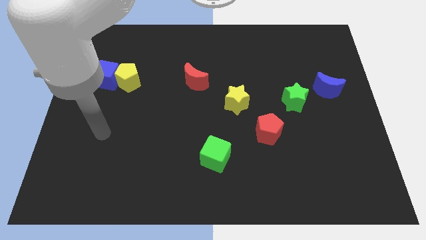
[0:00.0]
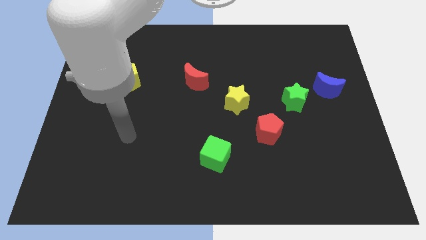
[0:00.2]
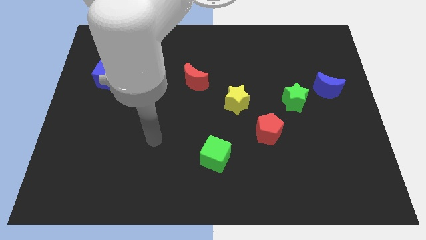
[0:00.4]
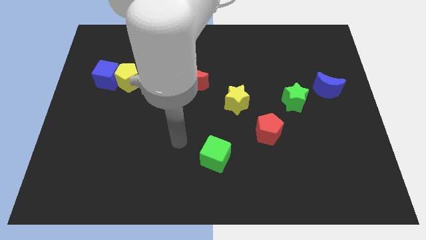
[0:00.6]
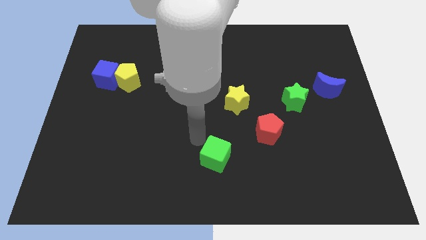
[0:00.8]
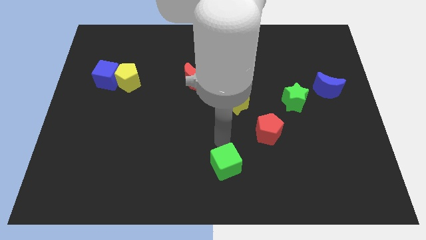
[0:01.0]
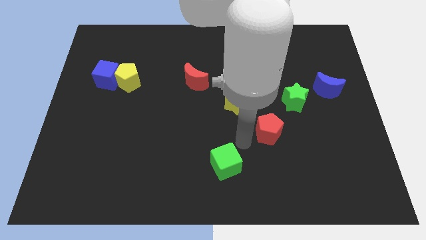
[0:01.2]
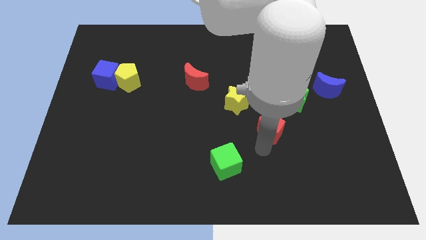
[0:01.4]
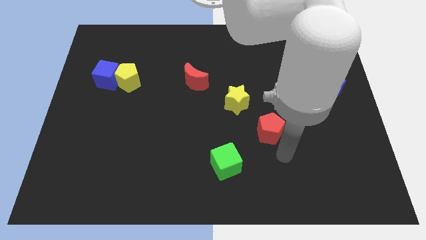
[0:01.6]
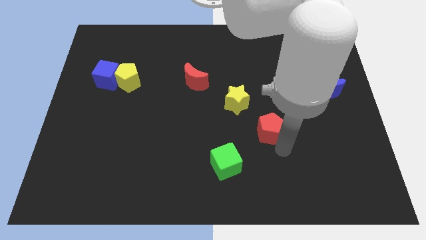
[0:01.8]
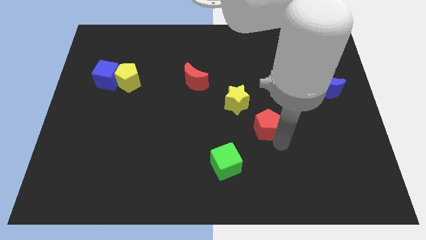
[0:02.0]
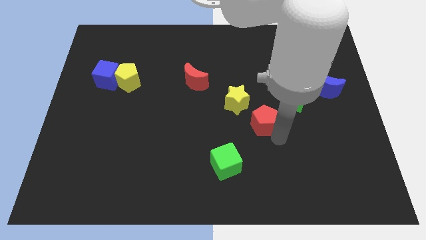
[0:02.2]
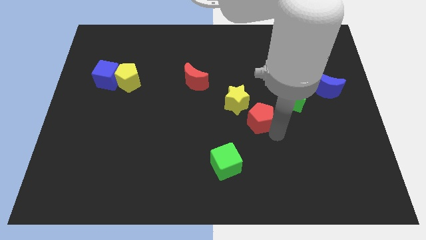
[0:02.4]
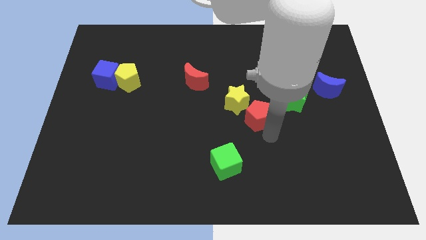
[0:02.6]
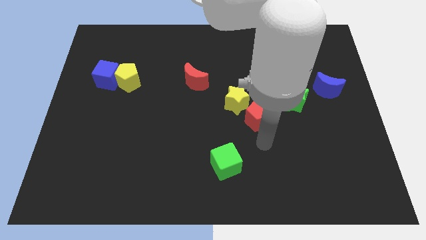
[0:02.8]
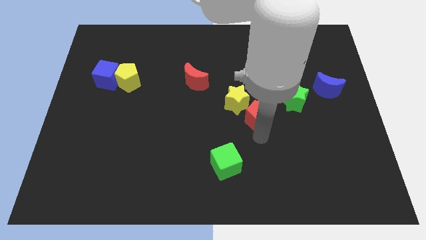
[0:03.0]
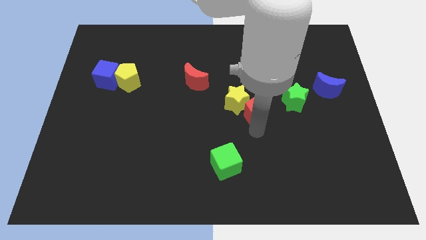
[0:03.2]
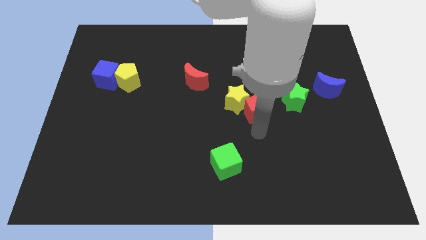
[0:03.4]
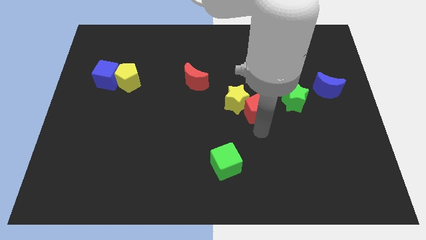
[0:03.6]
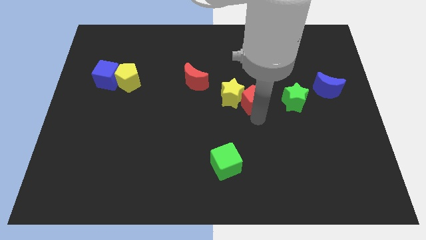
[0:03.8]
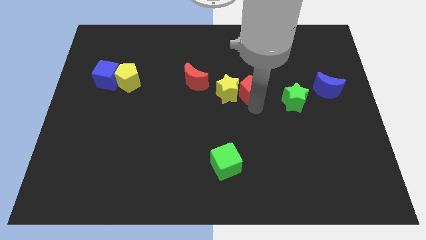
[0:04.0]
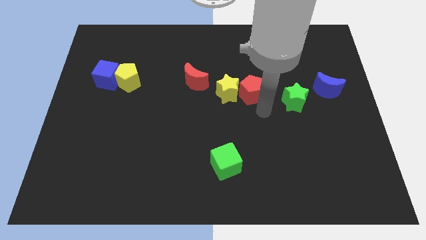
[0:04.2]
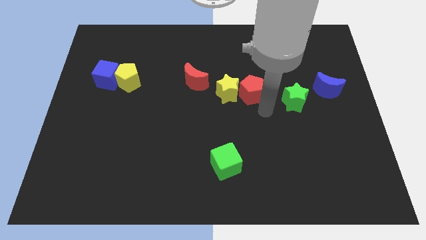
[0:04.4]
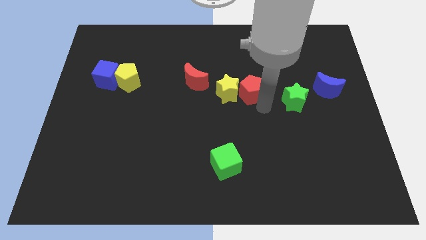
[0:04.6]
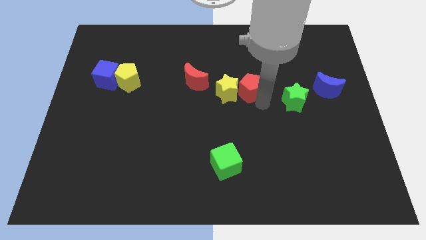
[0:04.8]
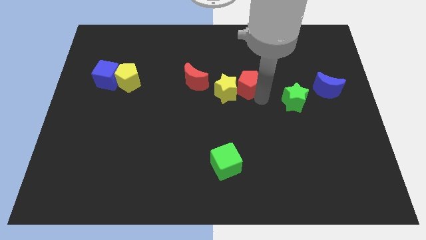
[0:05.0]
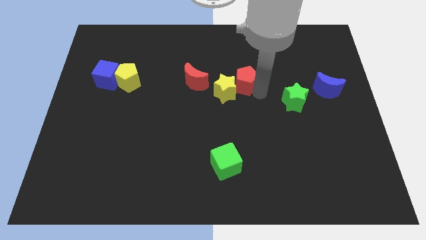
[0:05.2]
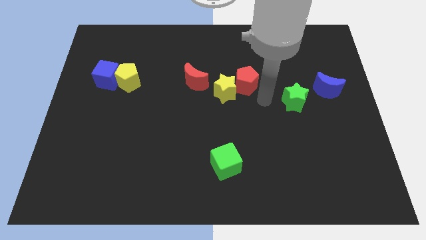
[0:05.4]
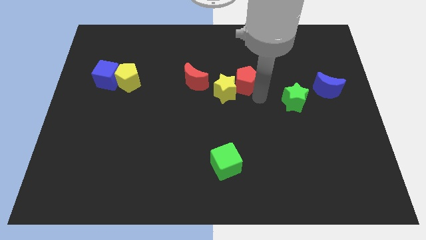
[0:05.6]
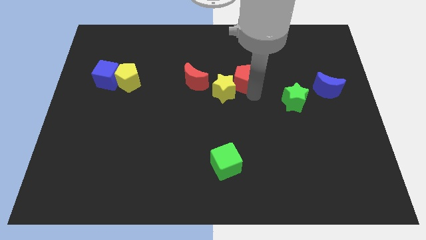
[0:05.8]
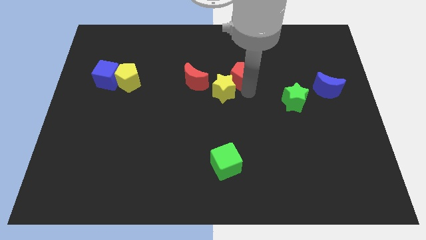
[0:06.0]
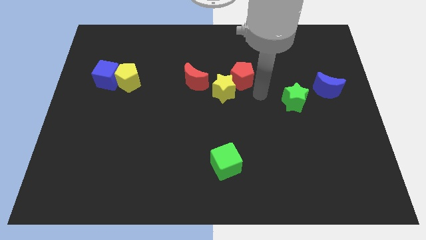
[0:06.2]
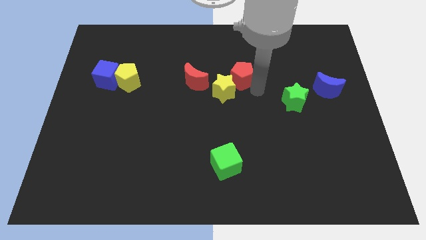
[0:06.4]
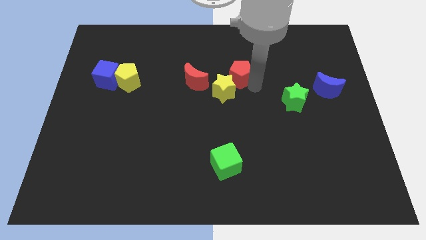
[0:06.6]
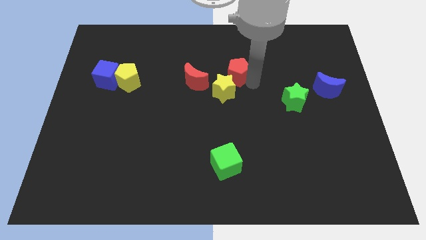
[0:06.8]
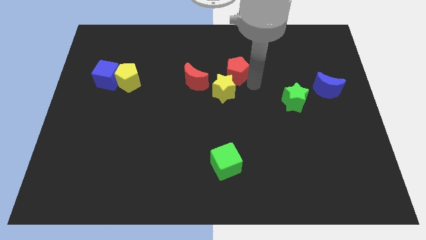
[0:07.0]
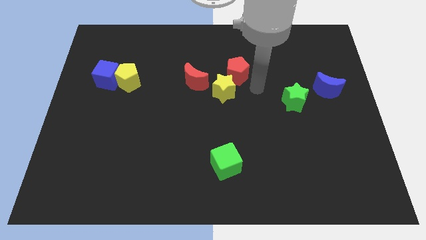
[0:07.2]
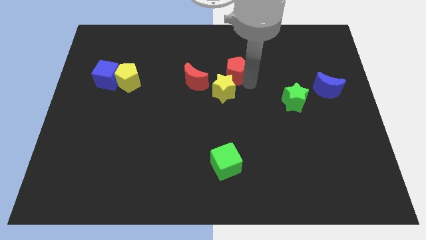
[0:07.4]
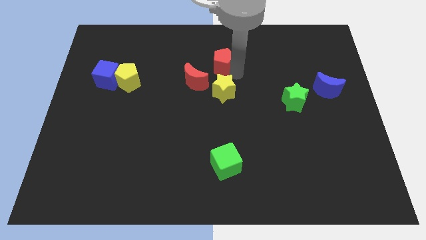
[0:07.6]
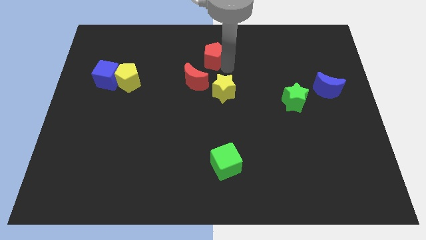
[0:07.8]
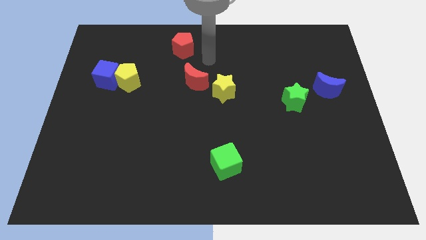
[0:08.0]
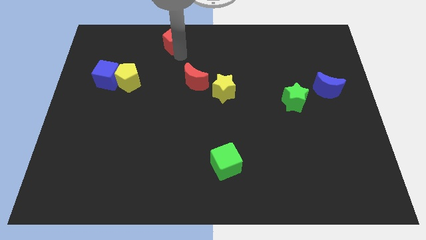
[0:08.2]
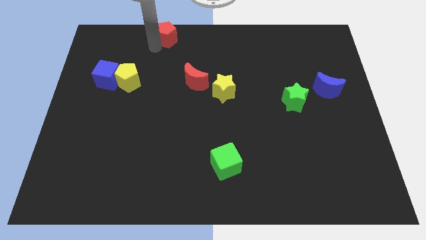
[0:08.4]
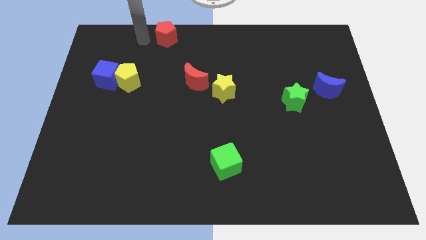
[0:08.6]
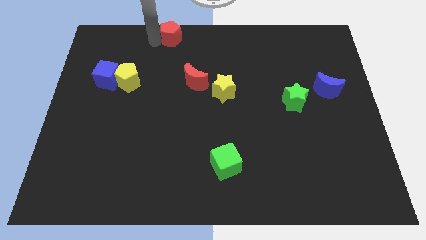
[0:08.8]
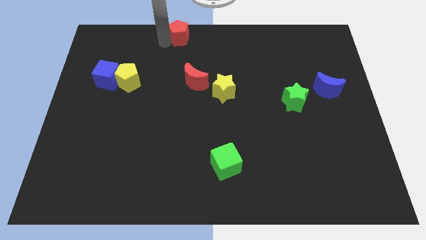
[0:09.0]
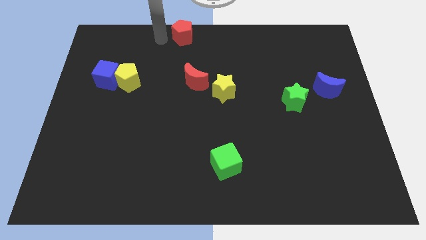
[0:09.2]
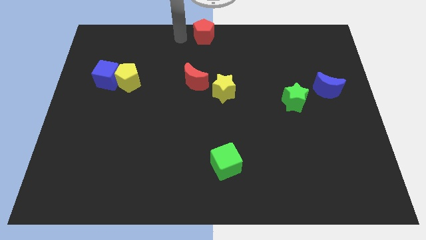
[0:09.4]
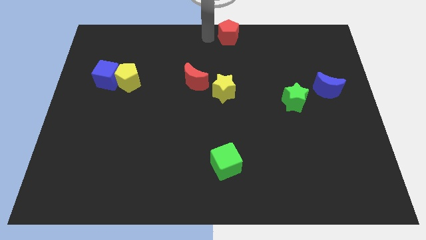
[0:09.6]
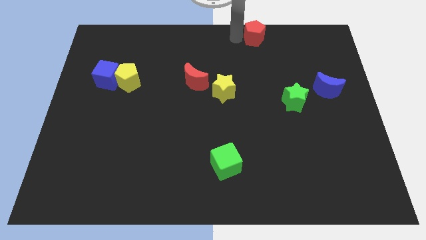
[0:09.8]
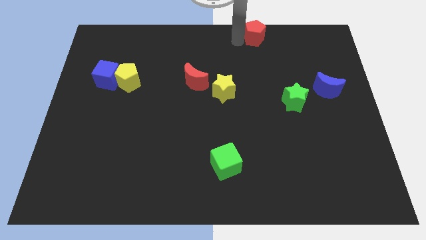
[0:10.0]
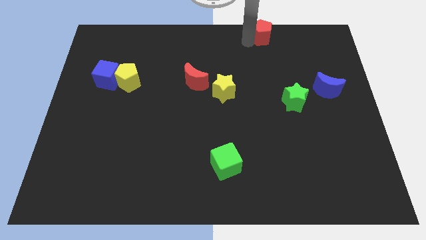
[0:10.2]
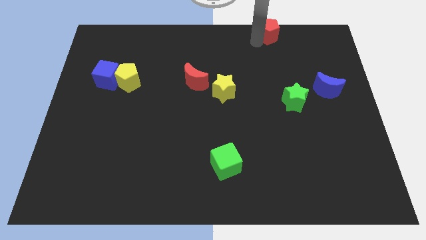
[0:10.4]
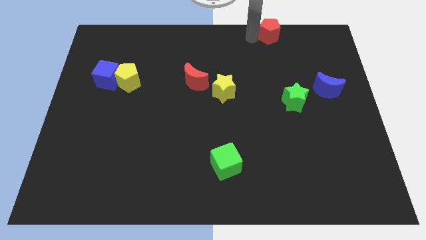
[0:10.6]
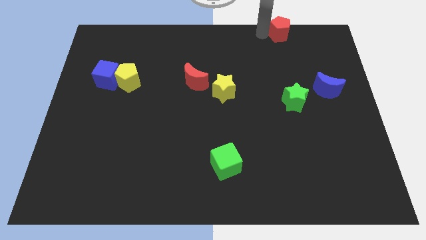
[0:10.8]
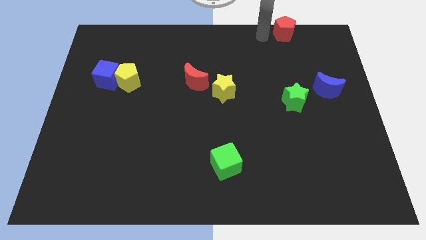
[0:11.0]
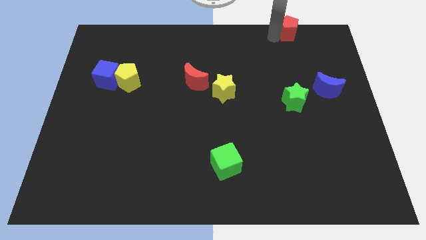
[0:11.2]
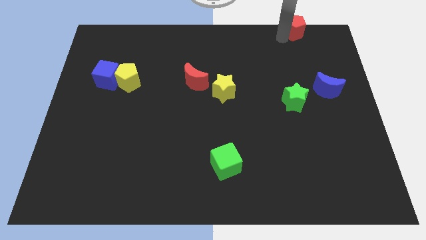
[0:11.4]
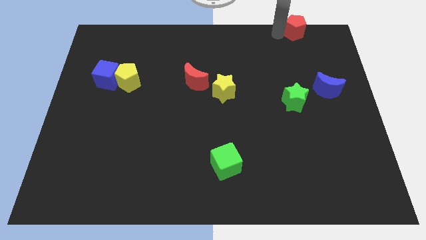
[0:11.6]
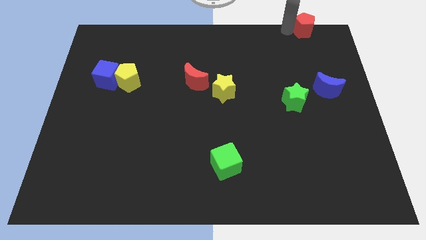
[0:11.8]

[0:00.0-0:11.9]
slide the red pentagon to the top right corner

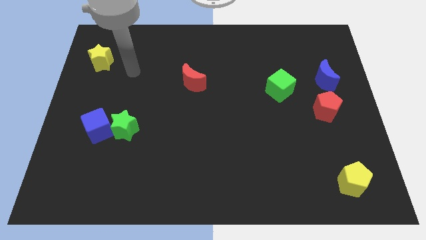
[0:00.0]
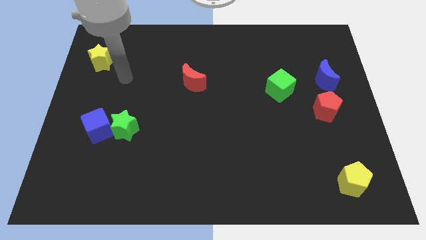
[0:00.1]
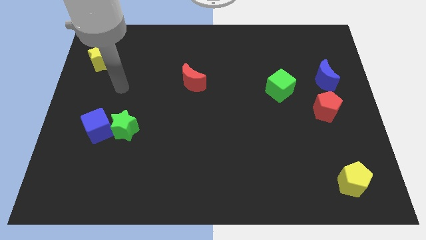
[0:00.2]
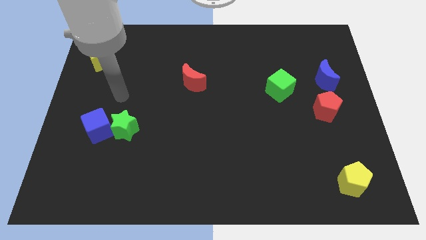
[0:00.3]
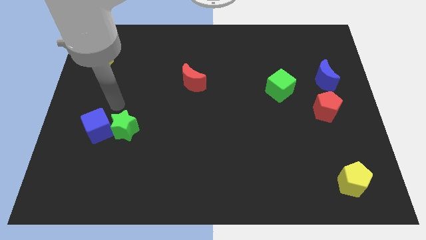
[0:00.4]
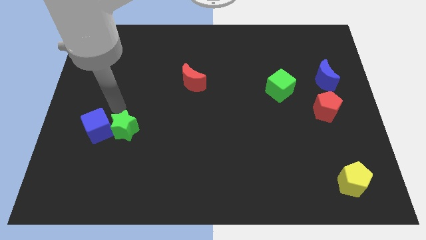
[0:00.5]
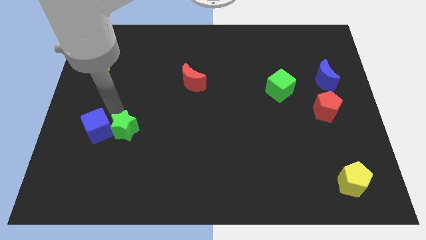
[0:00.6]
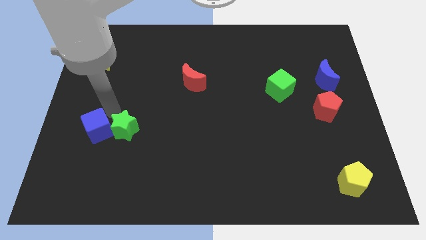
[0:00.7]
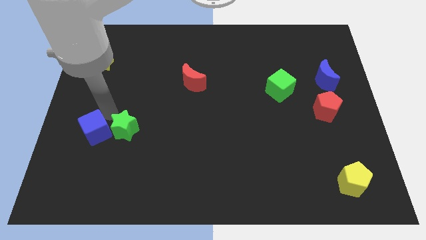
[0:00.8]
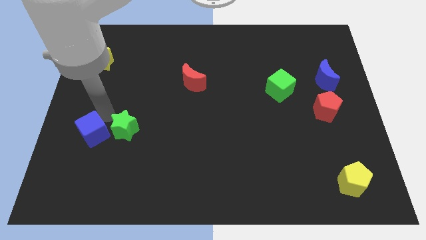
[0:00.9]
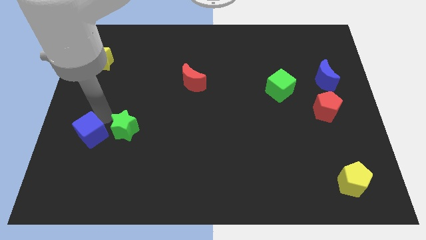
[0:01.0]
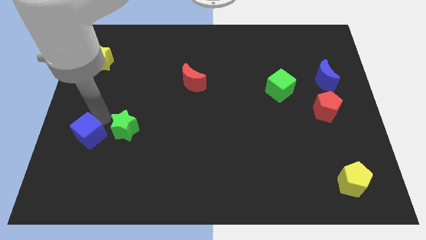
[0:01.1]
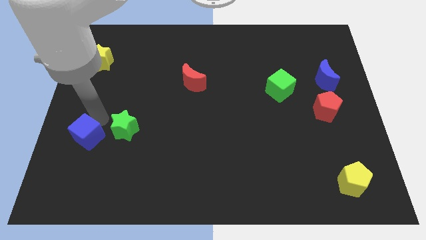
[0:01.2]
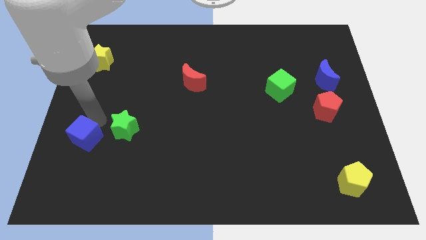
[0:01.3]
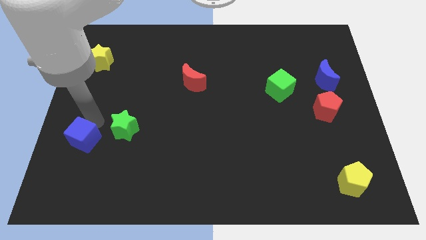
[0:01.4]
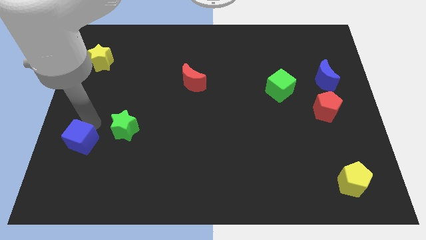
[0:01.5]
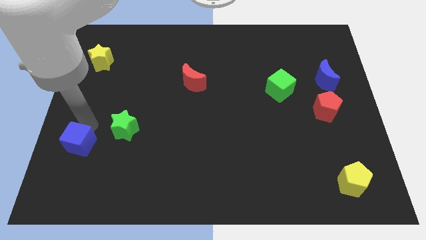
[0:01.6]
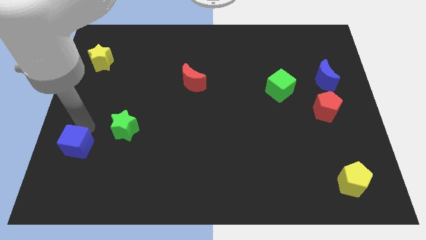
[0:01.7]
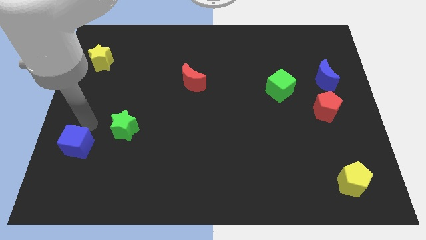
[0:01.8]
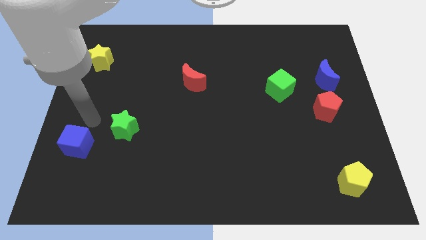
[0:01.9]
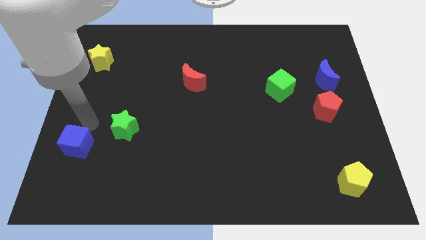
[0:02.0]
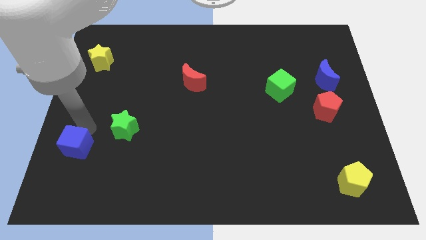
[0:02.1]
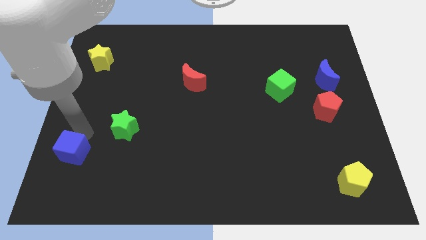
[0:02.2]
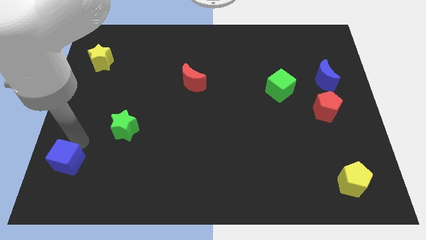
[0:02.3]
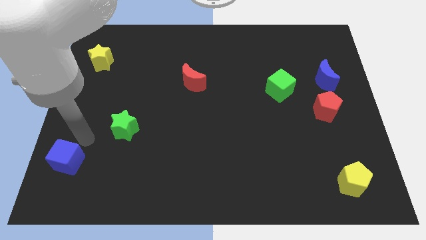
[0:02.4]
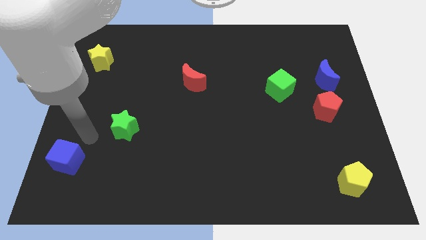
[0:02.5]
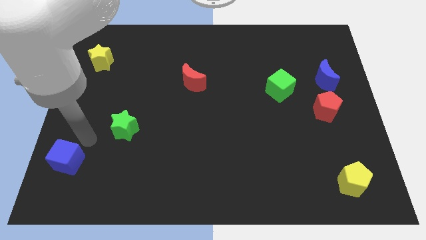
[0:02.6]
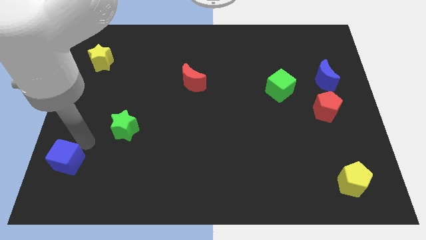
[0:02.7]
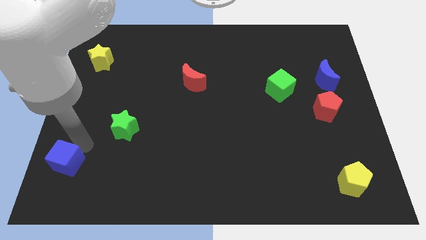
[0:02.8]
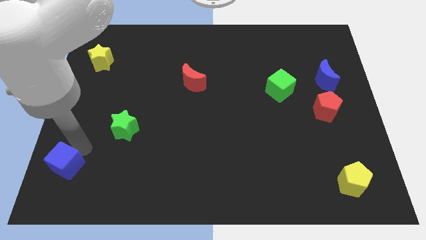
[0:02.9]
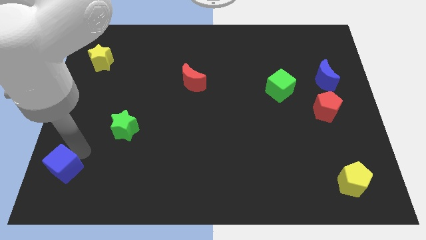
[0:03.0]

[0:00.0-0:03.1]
move the blue cube to the bottom left of the board
